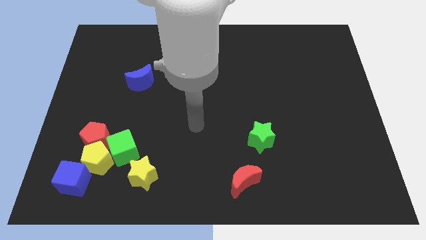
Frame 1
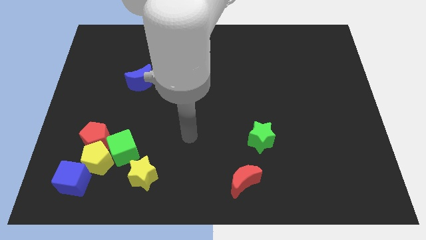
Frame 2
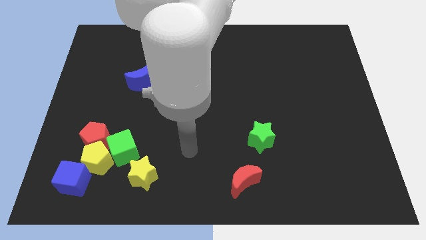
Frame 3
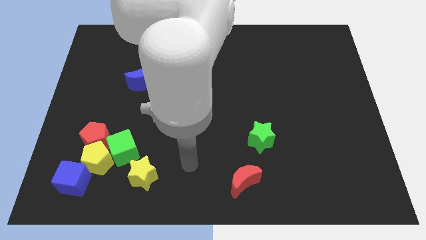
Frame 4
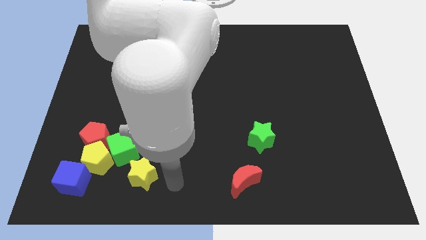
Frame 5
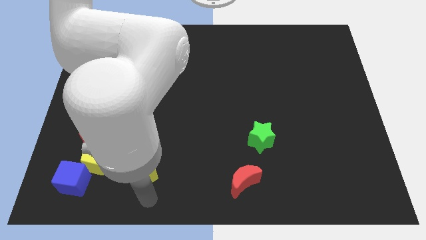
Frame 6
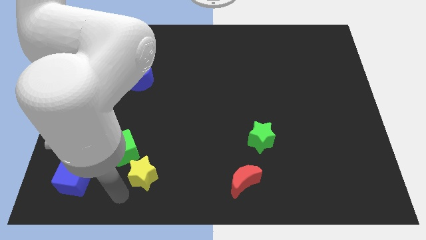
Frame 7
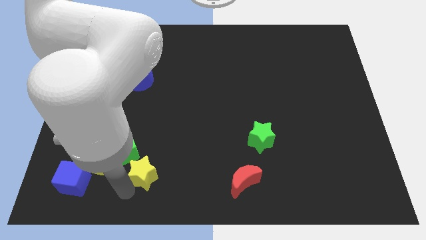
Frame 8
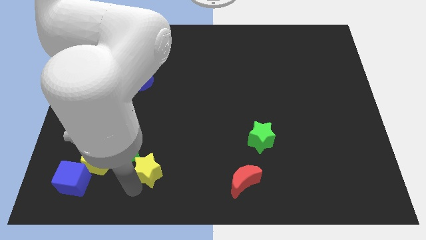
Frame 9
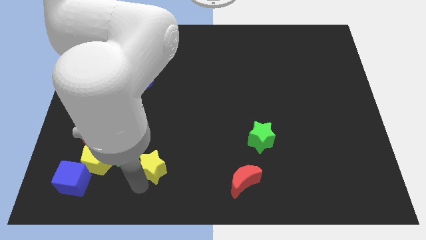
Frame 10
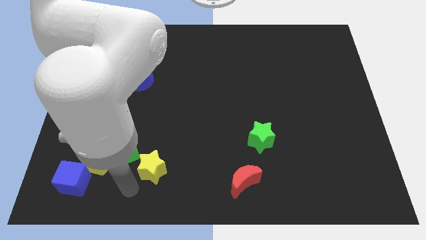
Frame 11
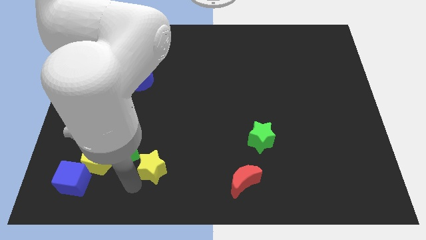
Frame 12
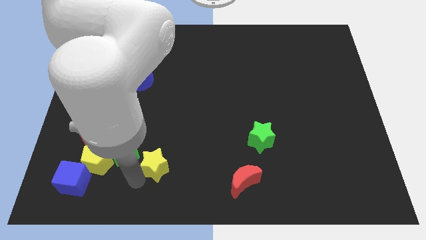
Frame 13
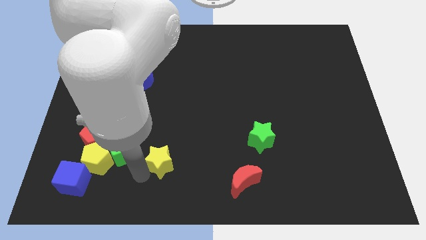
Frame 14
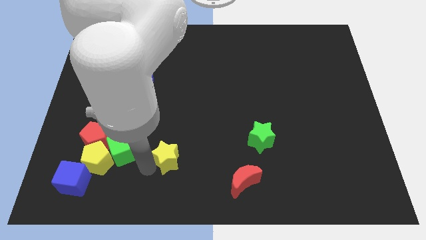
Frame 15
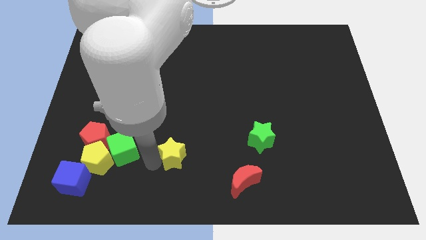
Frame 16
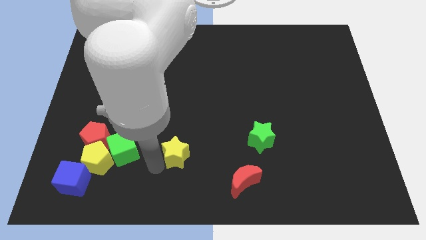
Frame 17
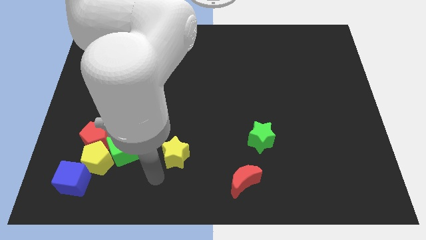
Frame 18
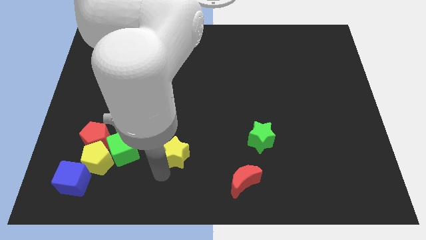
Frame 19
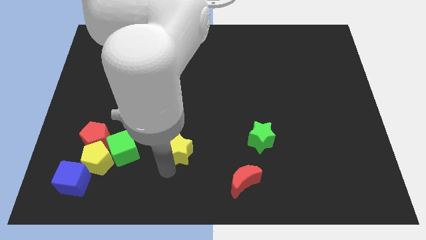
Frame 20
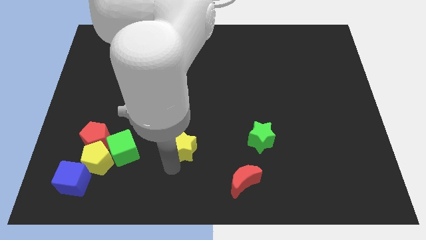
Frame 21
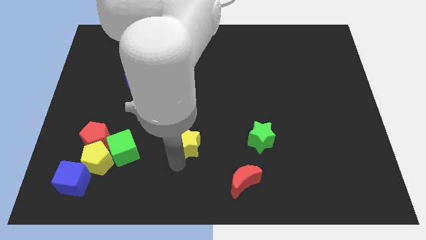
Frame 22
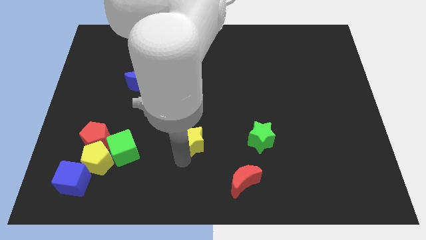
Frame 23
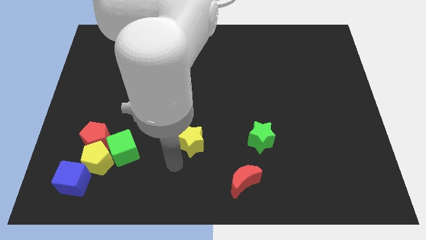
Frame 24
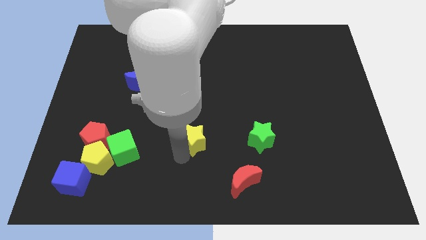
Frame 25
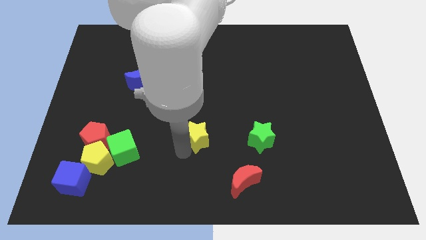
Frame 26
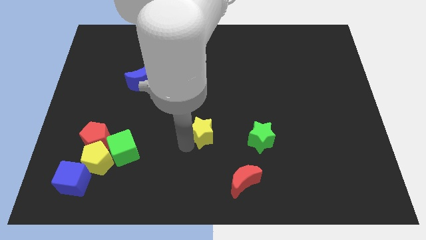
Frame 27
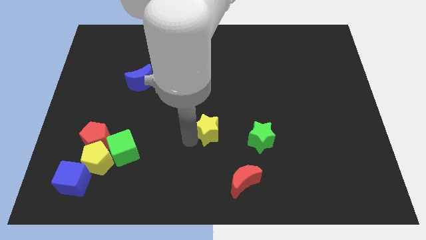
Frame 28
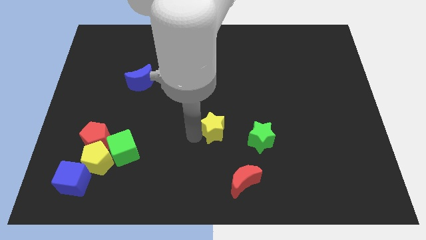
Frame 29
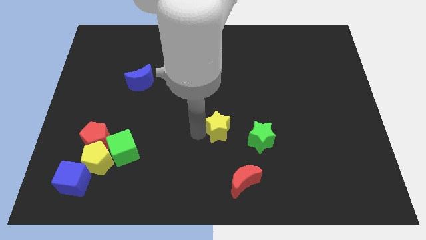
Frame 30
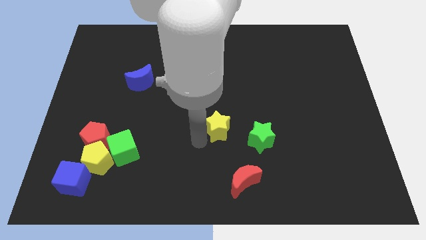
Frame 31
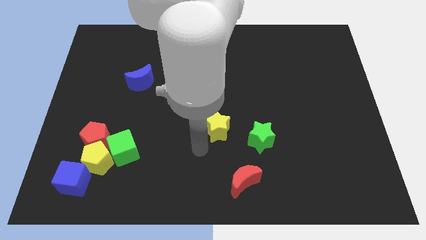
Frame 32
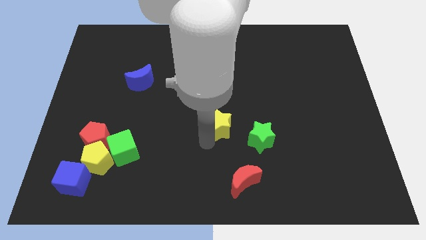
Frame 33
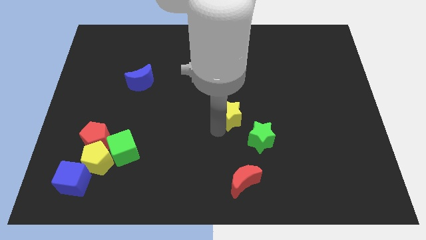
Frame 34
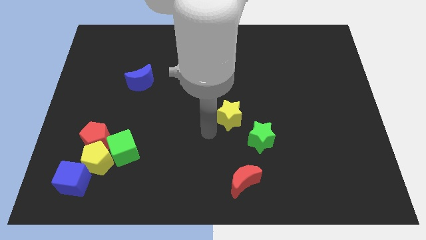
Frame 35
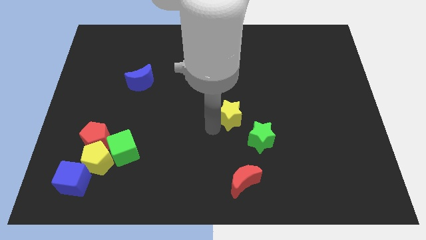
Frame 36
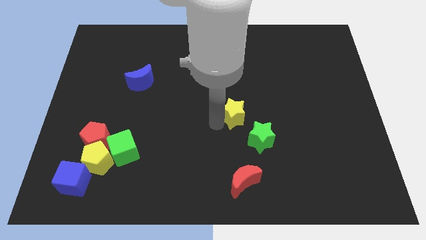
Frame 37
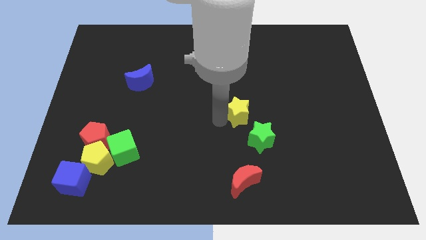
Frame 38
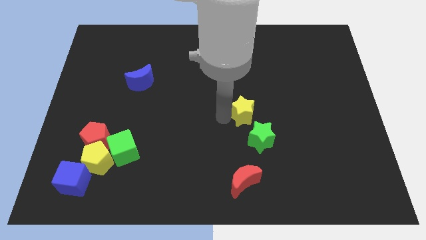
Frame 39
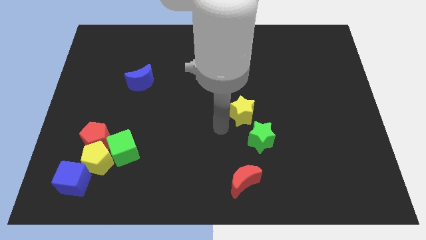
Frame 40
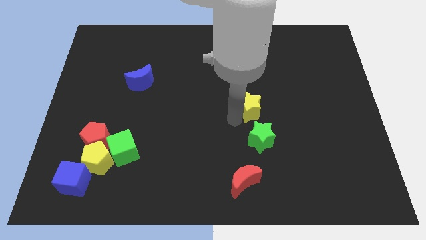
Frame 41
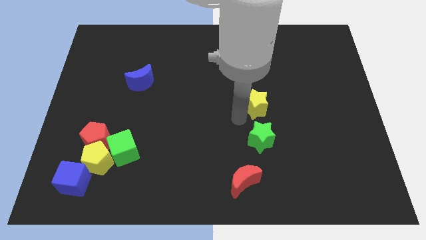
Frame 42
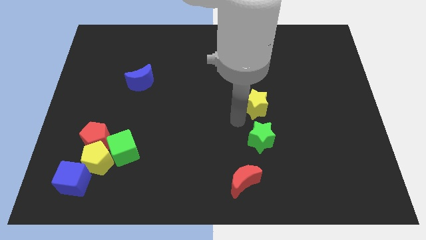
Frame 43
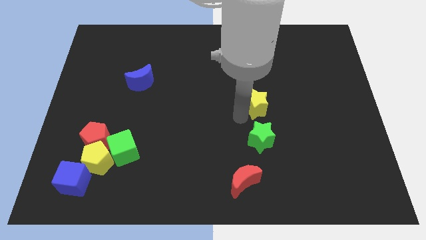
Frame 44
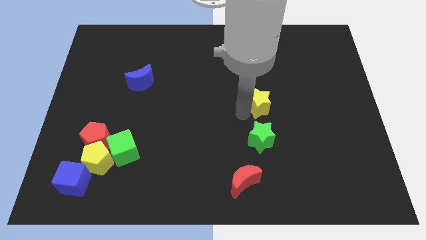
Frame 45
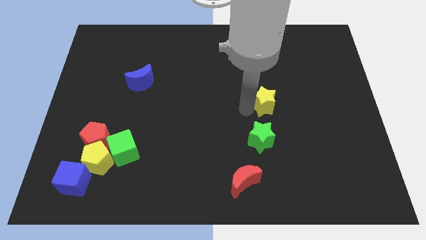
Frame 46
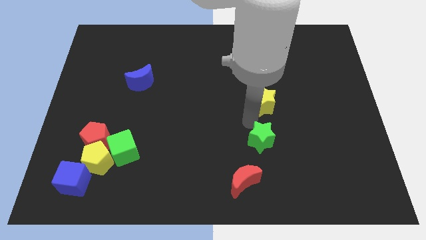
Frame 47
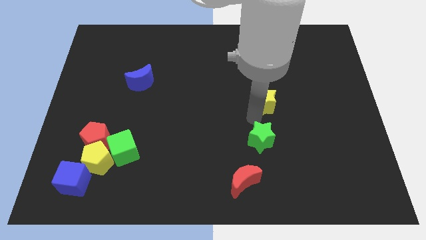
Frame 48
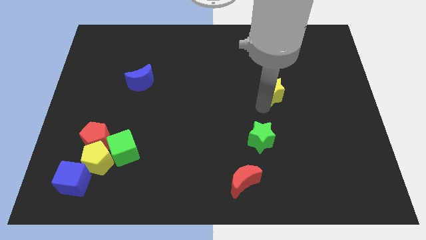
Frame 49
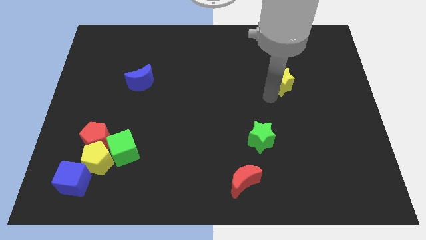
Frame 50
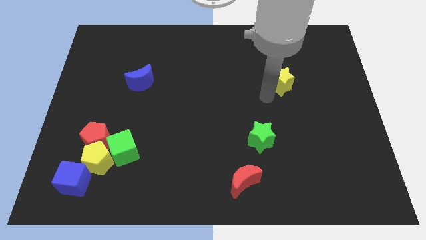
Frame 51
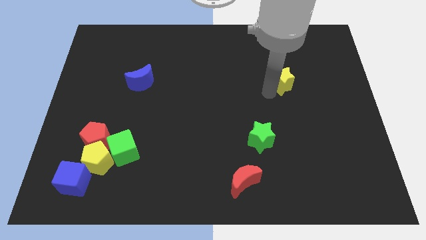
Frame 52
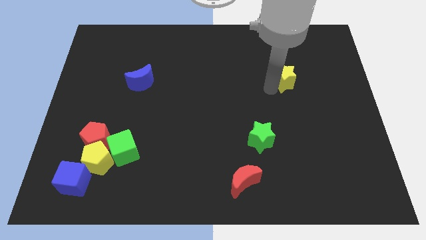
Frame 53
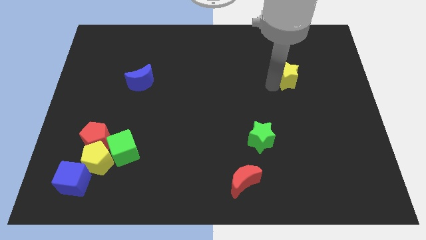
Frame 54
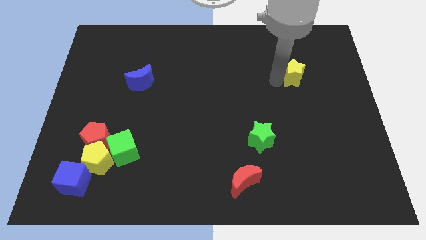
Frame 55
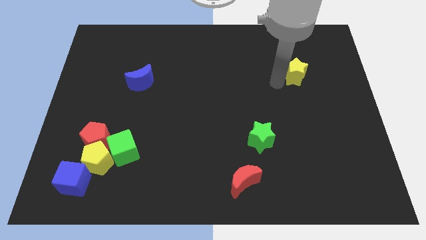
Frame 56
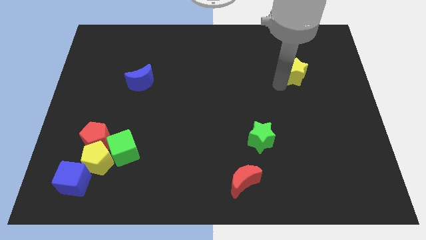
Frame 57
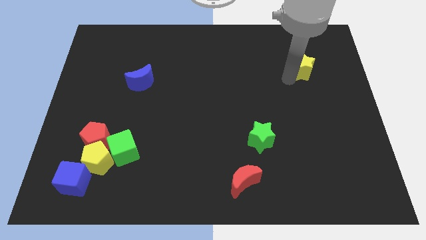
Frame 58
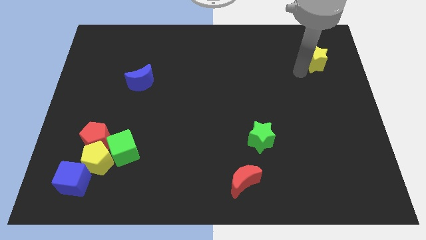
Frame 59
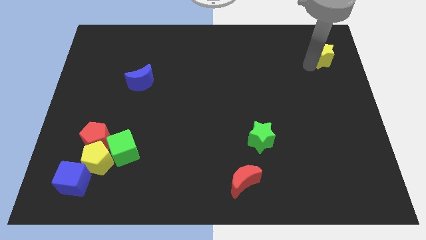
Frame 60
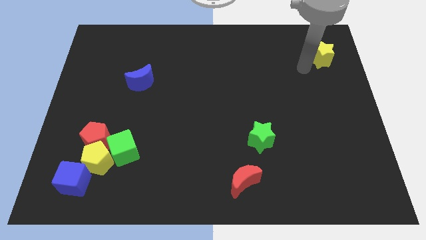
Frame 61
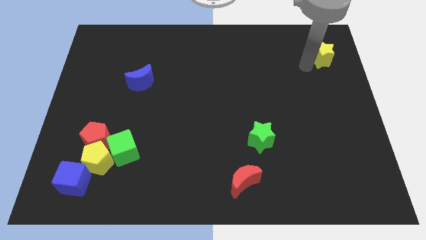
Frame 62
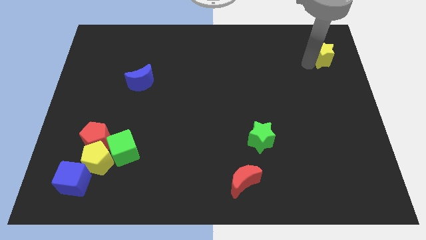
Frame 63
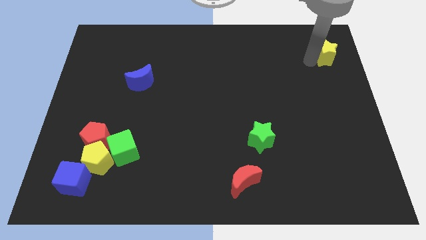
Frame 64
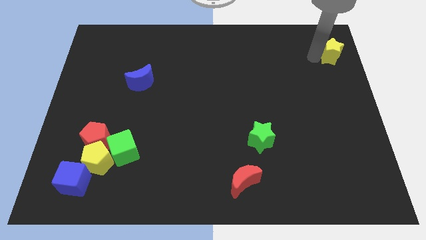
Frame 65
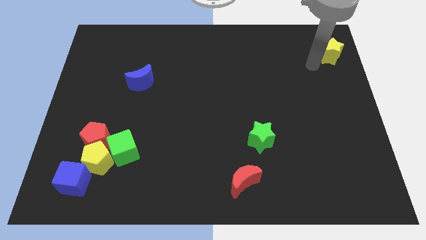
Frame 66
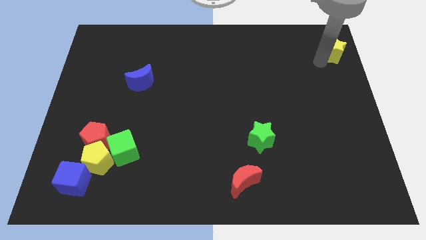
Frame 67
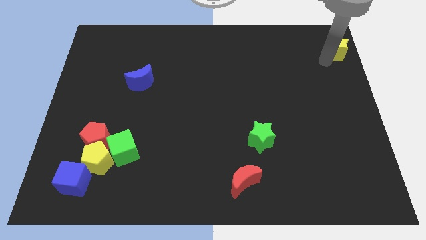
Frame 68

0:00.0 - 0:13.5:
put the yellow star to the upper right corner
